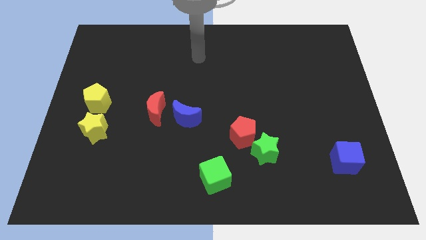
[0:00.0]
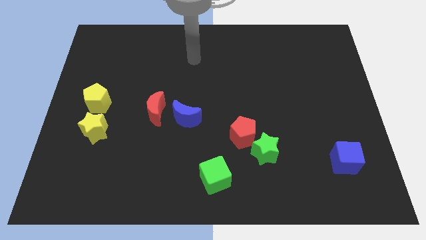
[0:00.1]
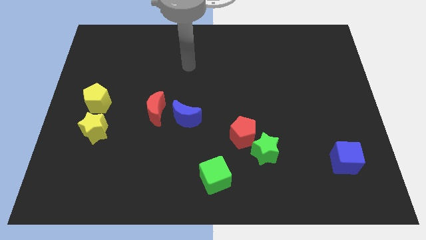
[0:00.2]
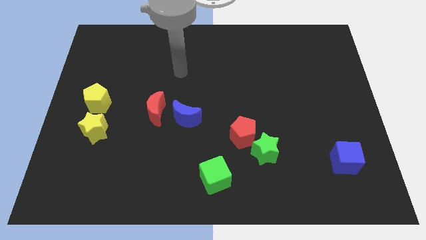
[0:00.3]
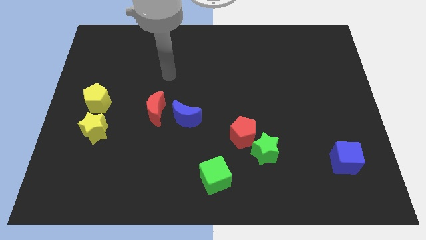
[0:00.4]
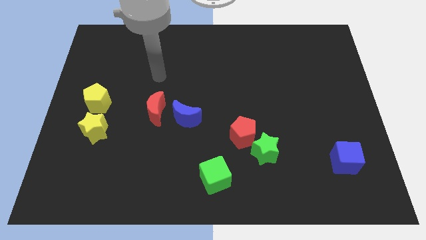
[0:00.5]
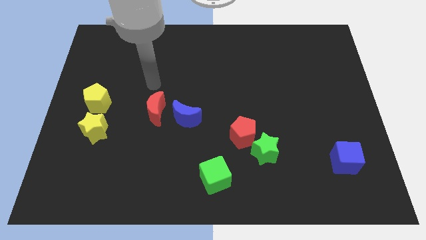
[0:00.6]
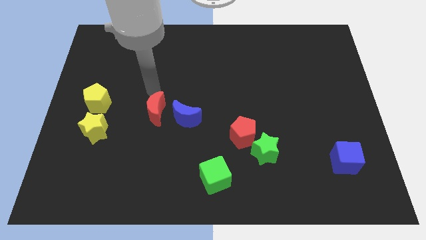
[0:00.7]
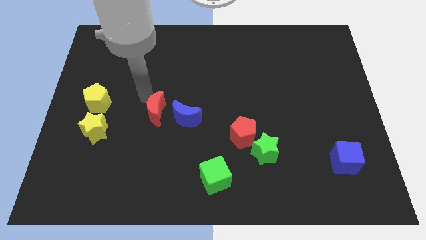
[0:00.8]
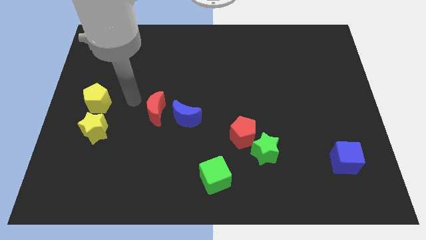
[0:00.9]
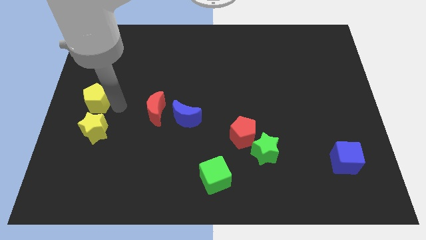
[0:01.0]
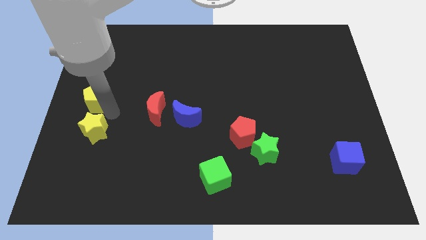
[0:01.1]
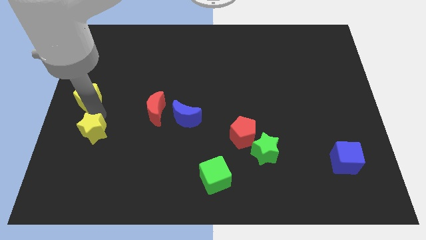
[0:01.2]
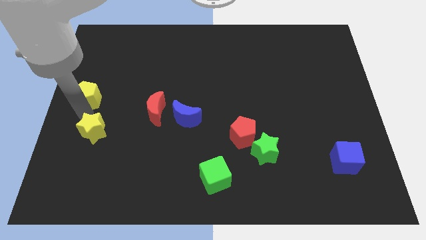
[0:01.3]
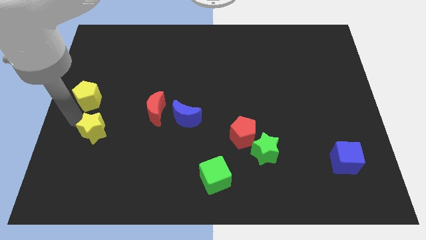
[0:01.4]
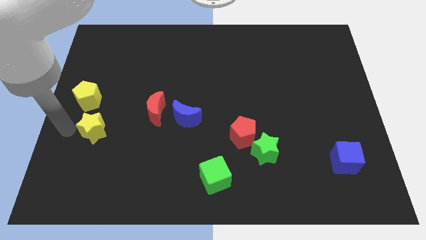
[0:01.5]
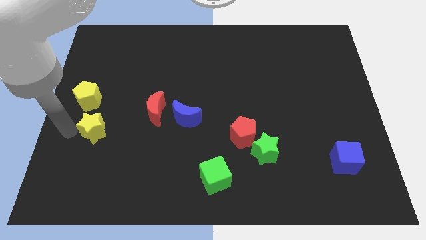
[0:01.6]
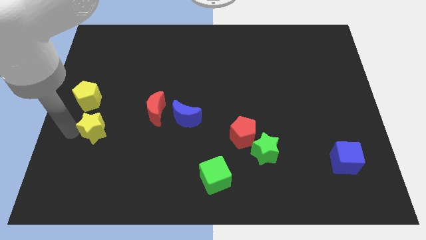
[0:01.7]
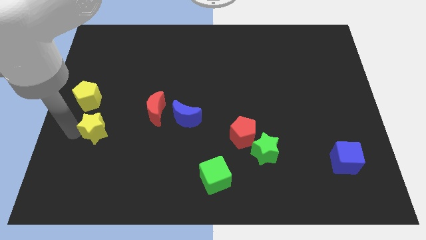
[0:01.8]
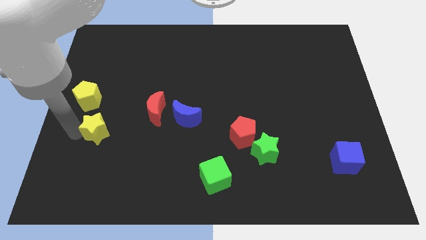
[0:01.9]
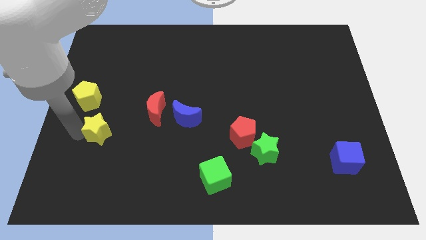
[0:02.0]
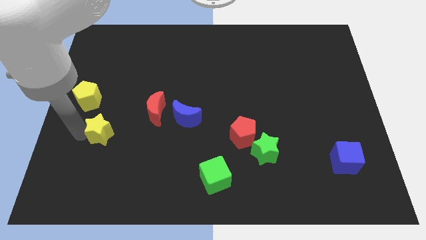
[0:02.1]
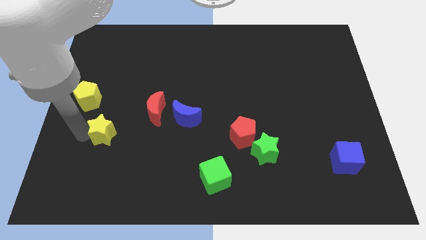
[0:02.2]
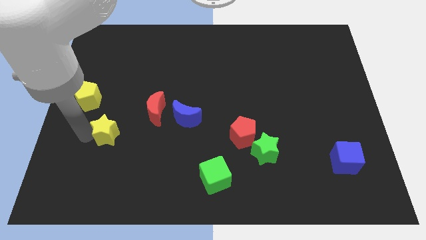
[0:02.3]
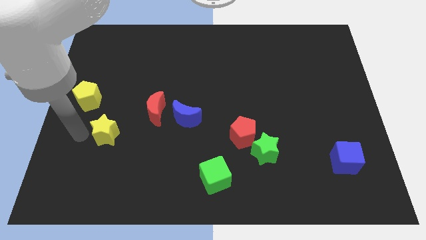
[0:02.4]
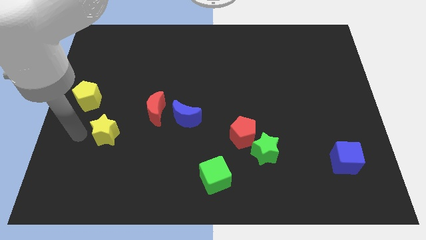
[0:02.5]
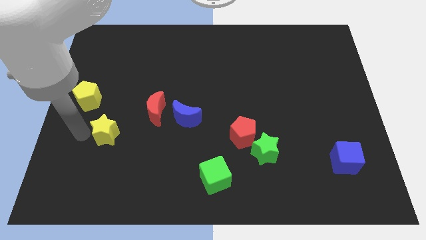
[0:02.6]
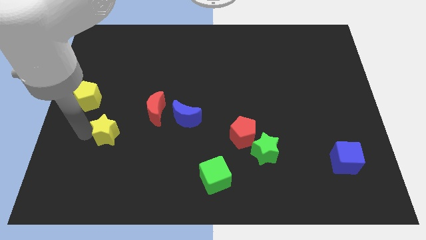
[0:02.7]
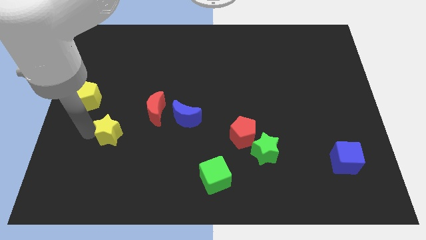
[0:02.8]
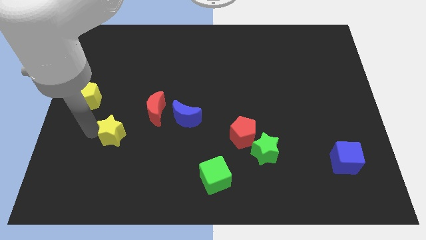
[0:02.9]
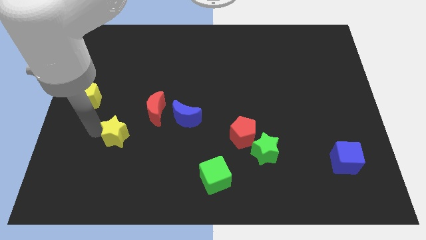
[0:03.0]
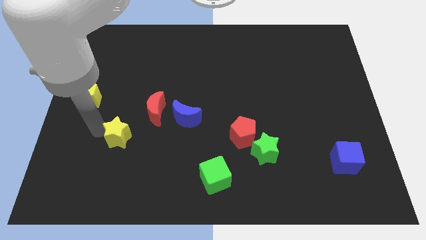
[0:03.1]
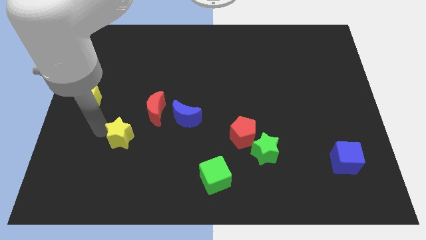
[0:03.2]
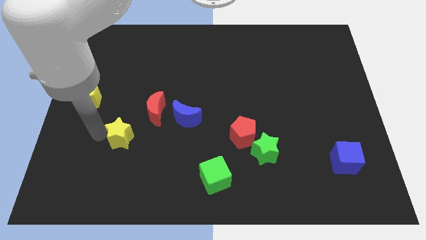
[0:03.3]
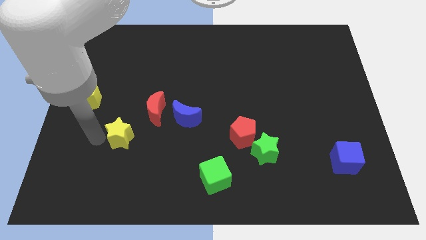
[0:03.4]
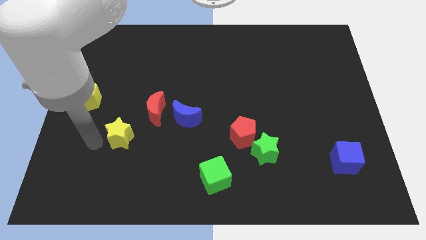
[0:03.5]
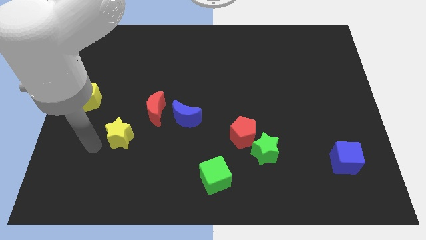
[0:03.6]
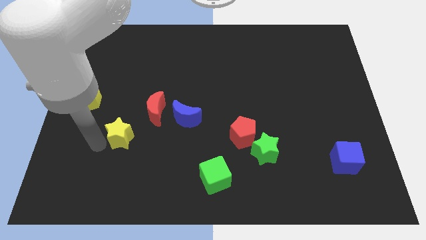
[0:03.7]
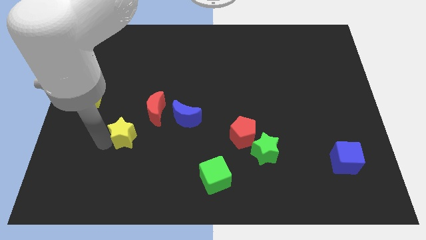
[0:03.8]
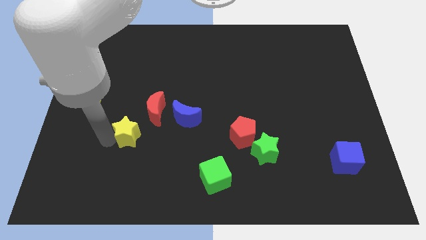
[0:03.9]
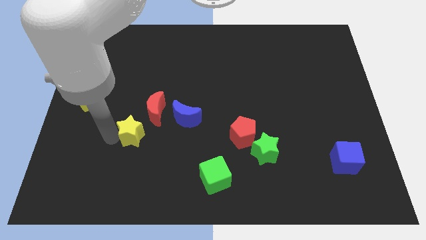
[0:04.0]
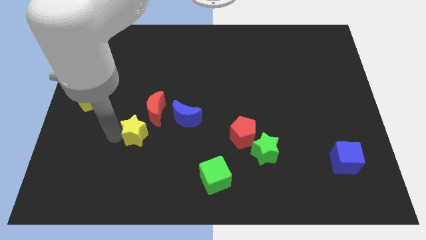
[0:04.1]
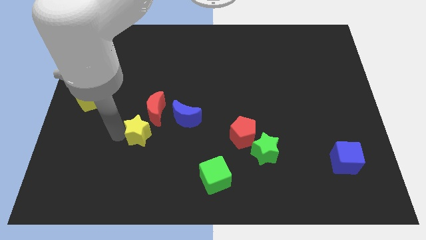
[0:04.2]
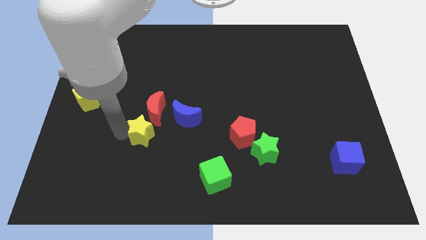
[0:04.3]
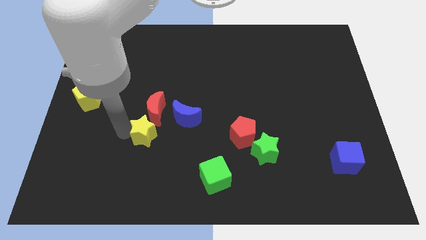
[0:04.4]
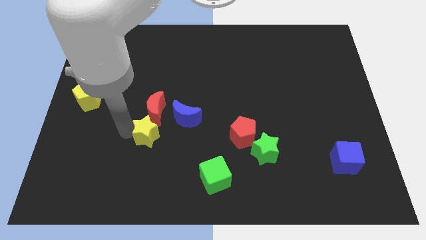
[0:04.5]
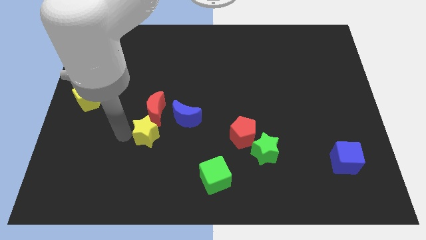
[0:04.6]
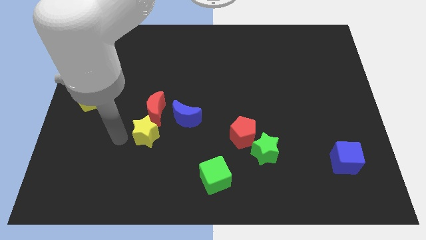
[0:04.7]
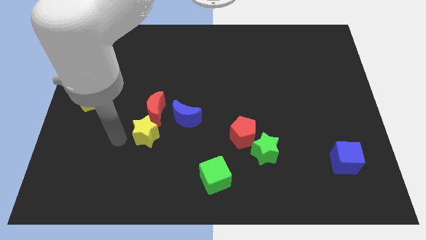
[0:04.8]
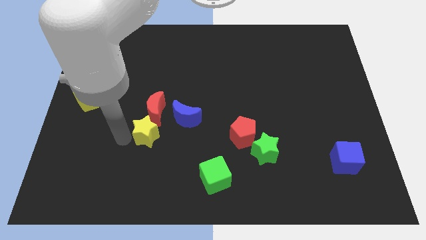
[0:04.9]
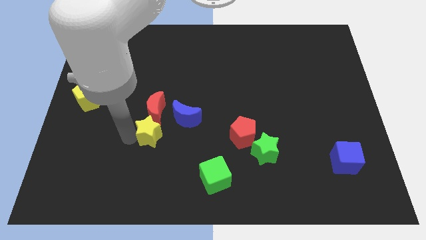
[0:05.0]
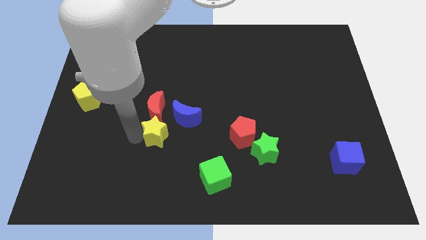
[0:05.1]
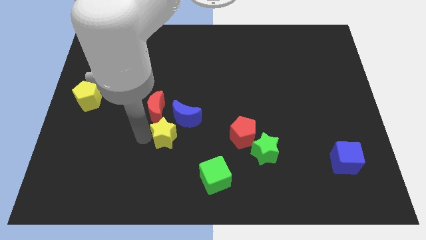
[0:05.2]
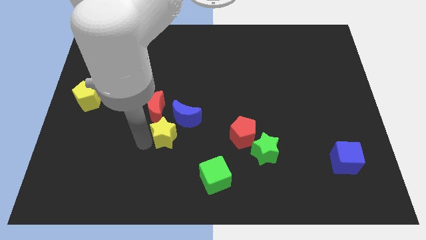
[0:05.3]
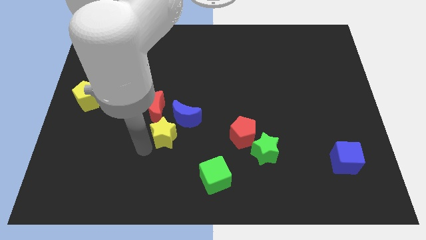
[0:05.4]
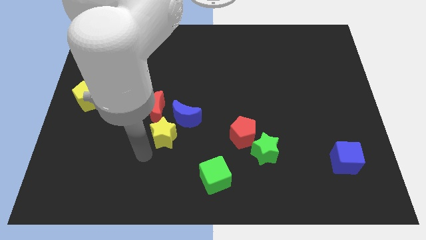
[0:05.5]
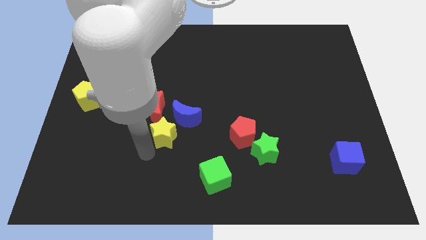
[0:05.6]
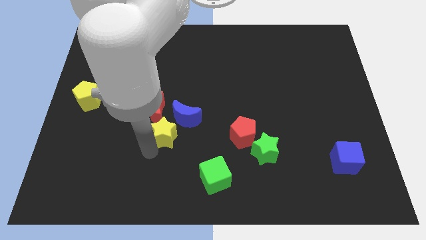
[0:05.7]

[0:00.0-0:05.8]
slide the yellow star close to the blue moon

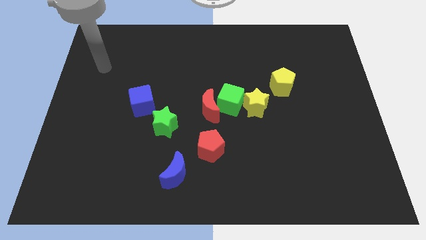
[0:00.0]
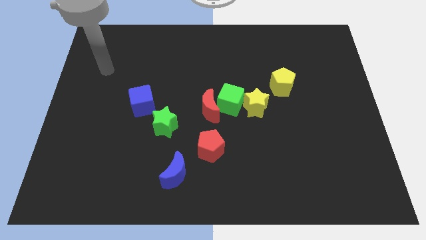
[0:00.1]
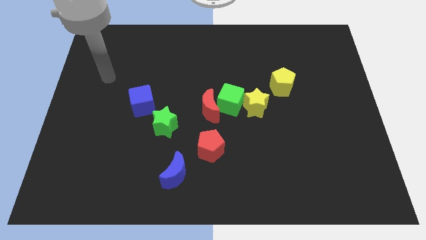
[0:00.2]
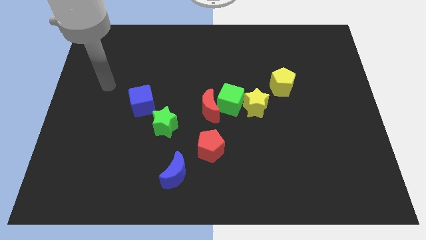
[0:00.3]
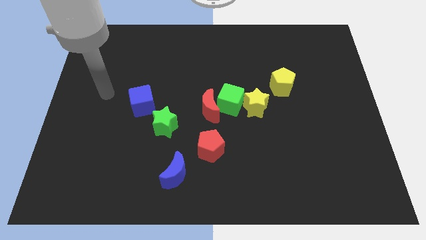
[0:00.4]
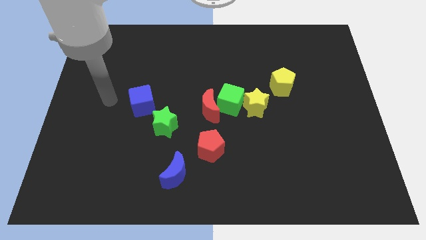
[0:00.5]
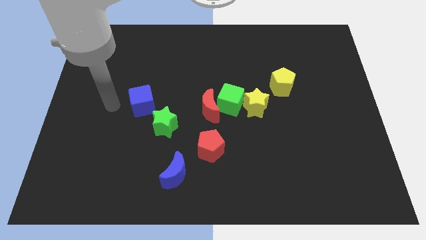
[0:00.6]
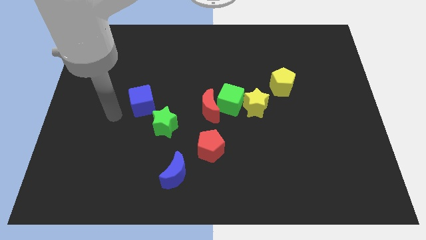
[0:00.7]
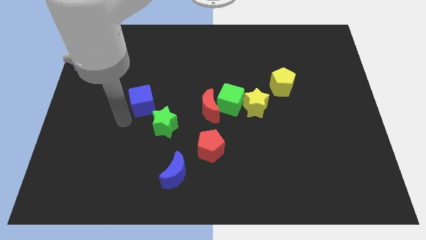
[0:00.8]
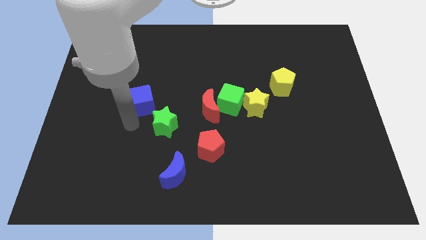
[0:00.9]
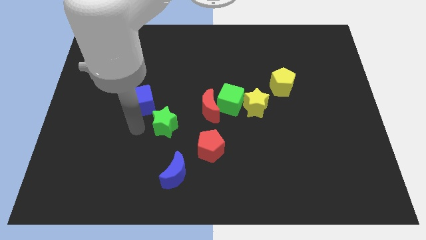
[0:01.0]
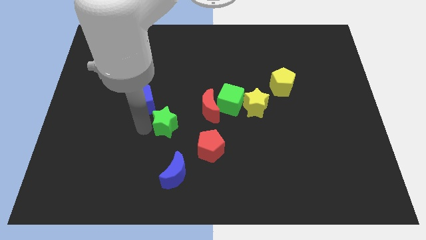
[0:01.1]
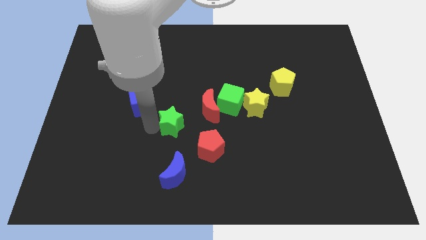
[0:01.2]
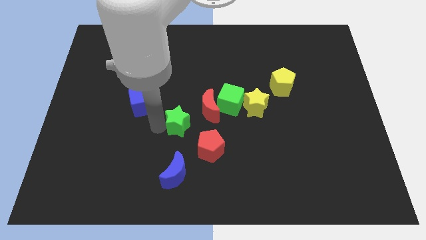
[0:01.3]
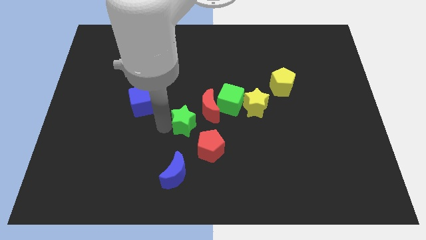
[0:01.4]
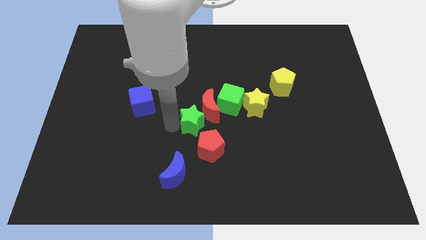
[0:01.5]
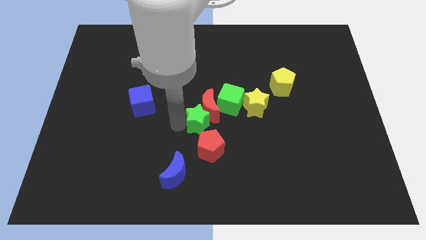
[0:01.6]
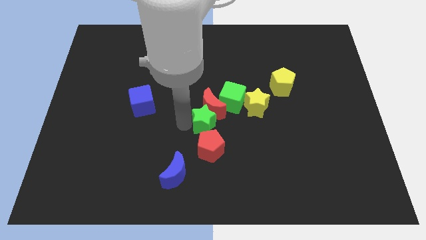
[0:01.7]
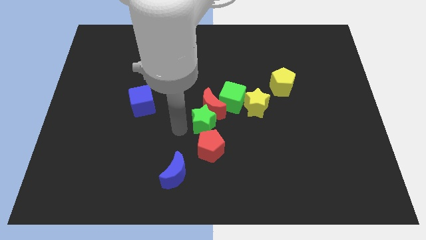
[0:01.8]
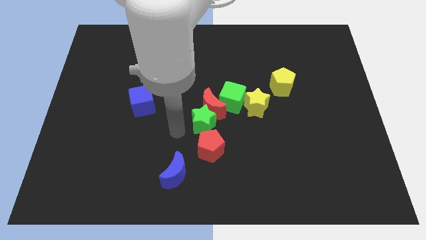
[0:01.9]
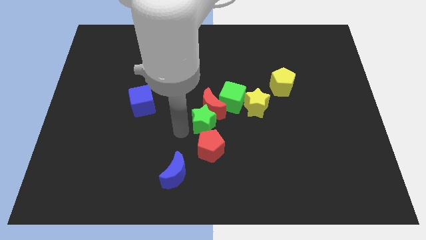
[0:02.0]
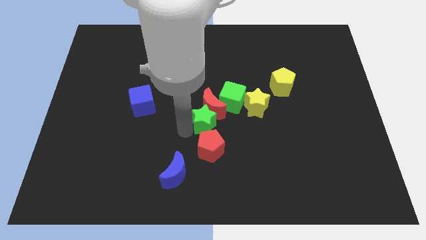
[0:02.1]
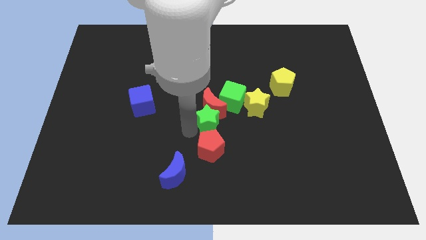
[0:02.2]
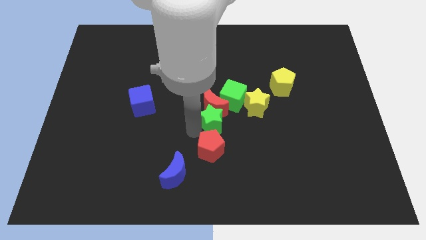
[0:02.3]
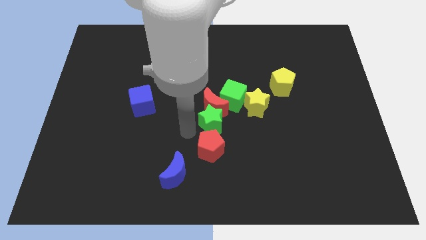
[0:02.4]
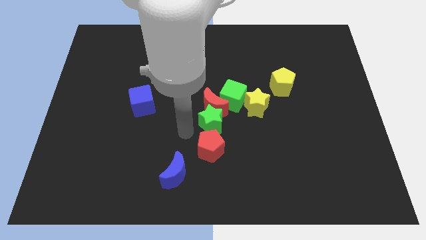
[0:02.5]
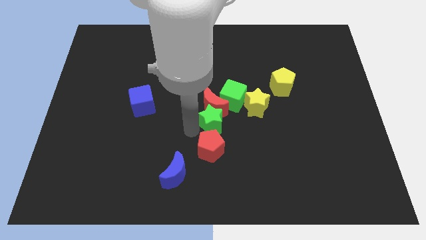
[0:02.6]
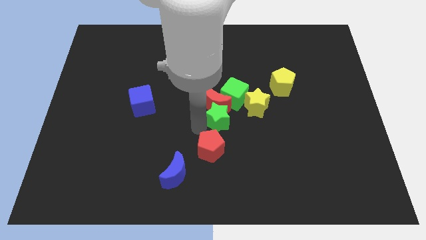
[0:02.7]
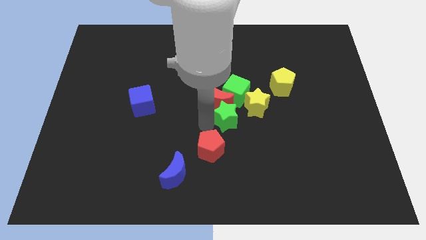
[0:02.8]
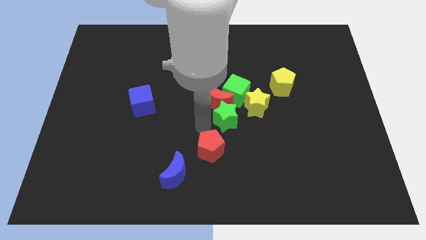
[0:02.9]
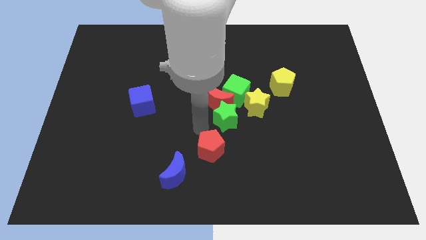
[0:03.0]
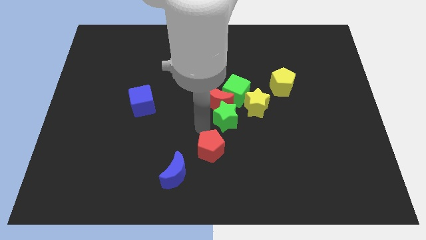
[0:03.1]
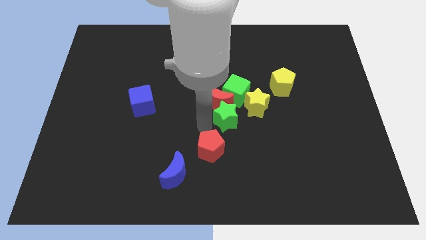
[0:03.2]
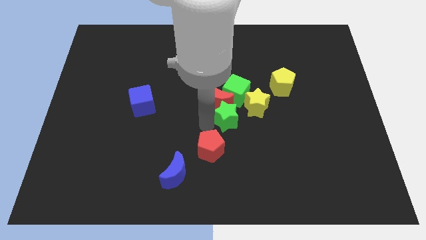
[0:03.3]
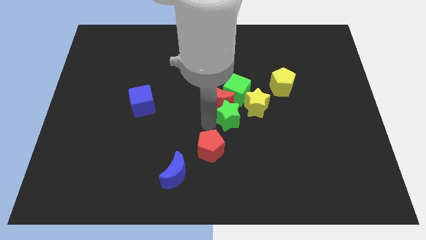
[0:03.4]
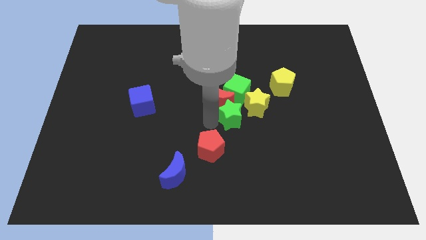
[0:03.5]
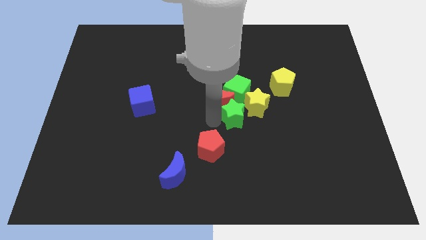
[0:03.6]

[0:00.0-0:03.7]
slide the green star to the yellow star
